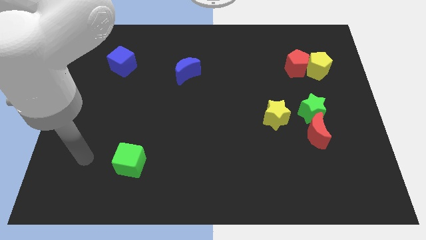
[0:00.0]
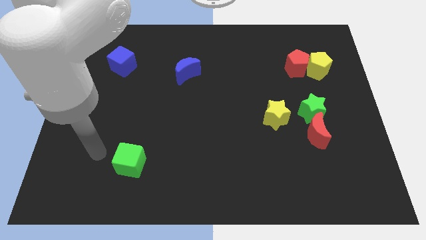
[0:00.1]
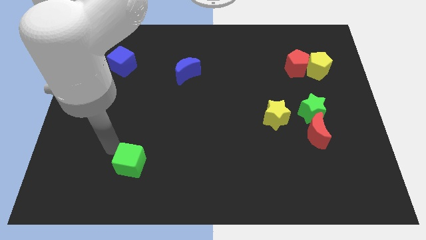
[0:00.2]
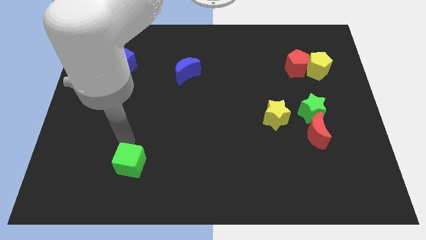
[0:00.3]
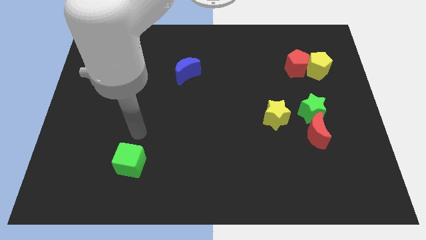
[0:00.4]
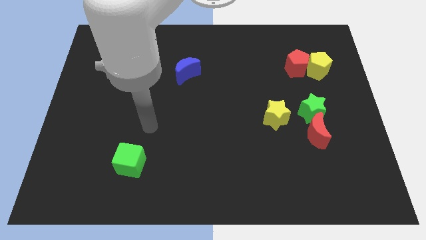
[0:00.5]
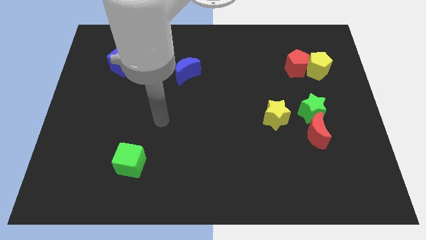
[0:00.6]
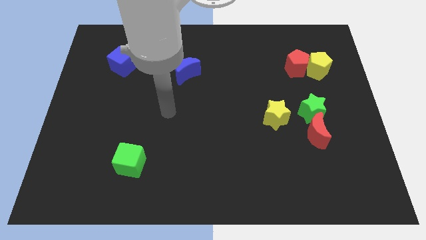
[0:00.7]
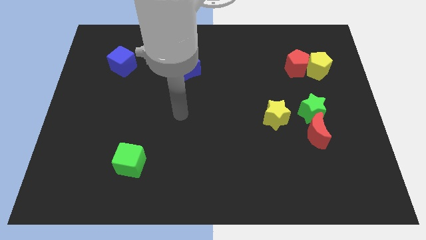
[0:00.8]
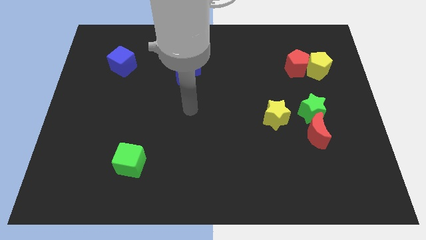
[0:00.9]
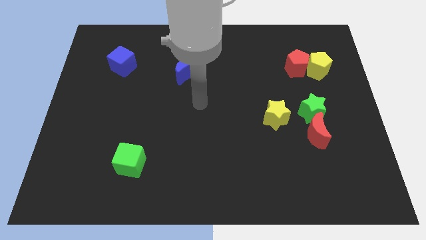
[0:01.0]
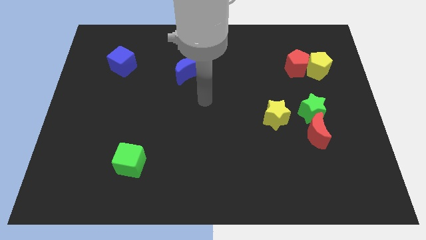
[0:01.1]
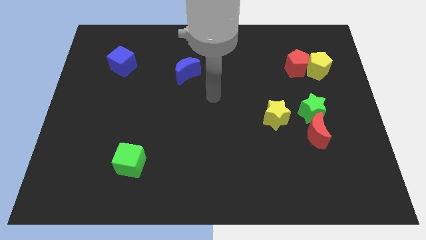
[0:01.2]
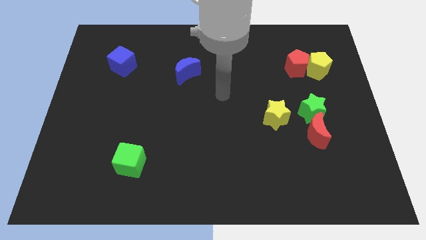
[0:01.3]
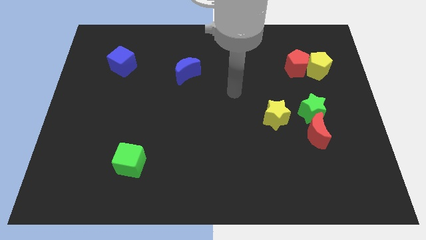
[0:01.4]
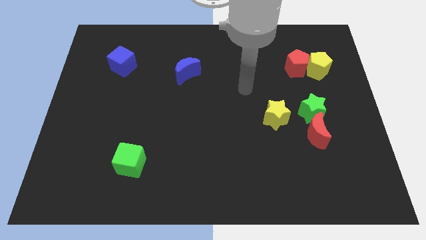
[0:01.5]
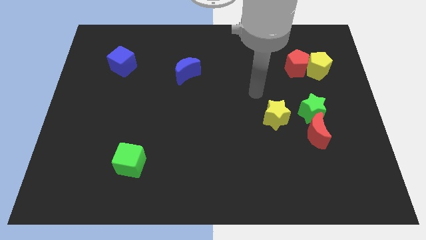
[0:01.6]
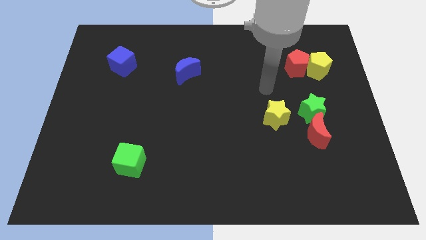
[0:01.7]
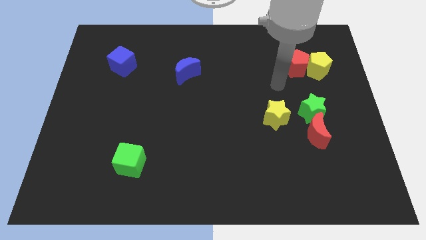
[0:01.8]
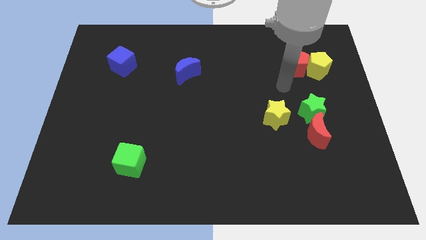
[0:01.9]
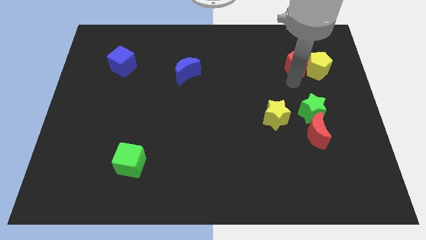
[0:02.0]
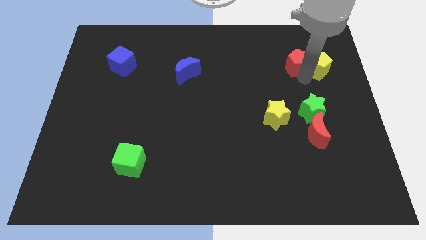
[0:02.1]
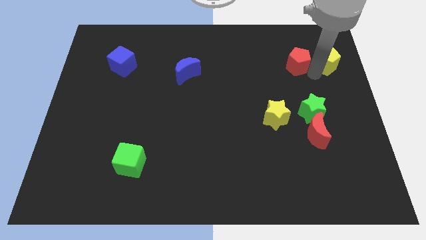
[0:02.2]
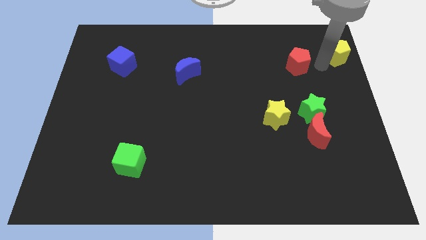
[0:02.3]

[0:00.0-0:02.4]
pull the red pentagon apart from the yellow pentagon

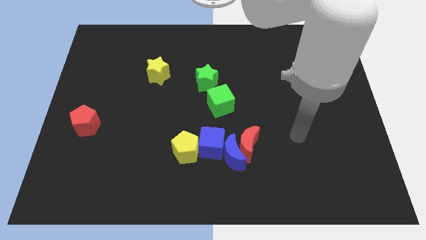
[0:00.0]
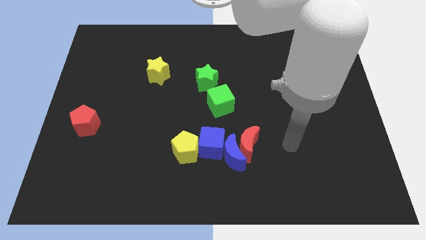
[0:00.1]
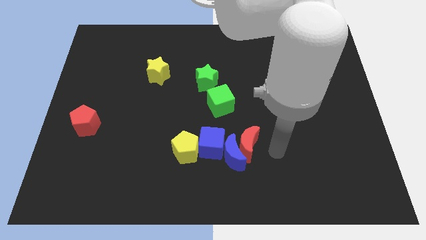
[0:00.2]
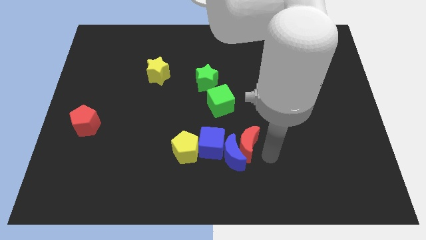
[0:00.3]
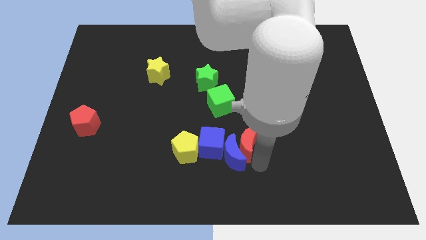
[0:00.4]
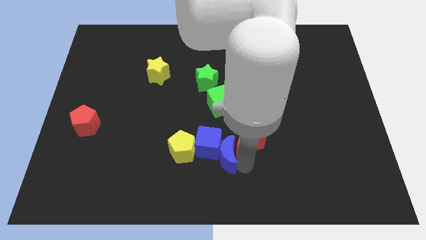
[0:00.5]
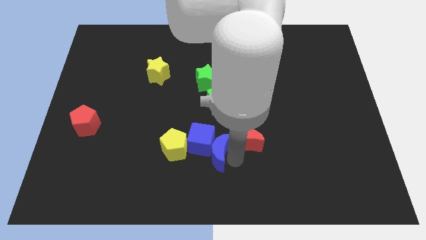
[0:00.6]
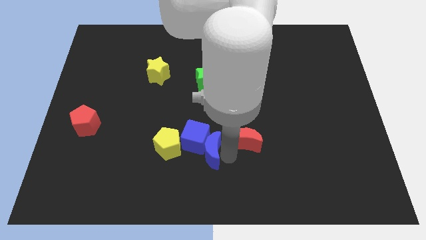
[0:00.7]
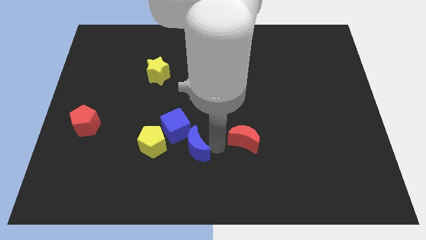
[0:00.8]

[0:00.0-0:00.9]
move the red moon away from the blue moon and blue cube

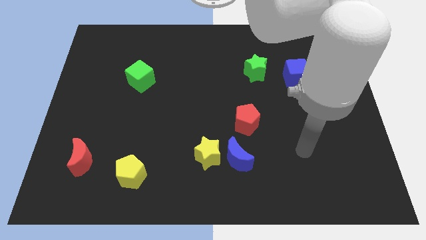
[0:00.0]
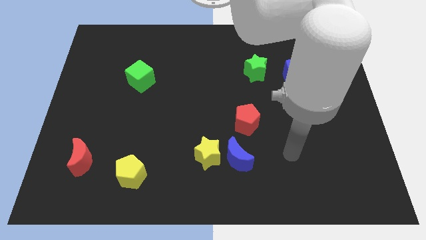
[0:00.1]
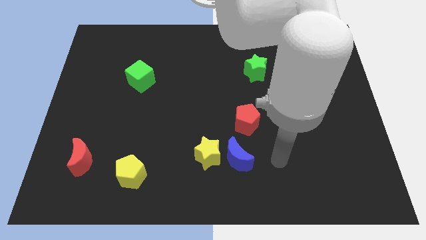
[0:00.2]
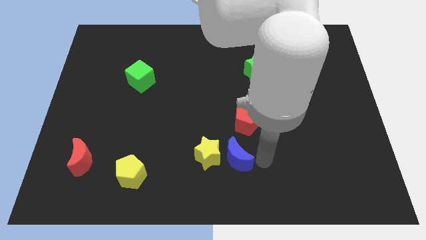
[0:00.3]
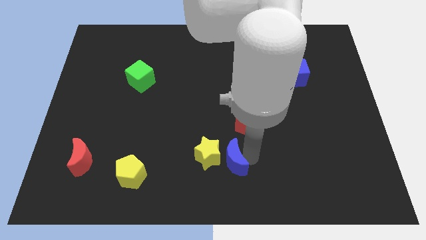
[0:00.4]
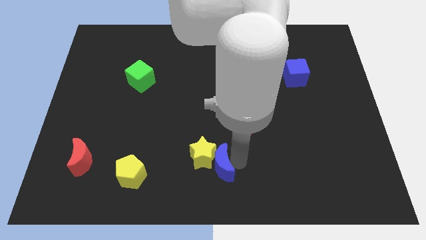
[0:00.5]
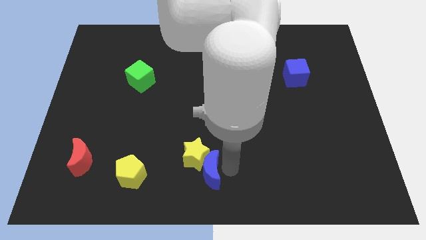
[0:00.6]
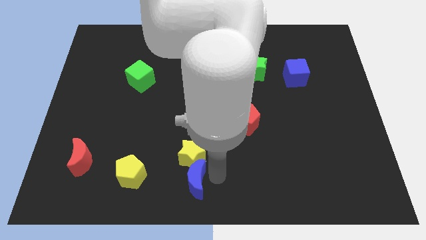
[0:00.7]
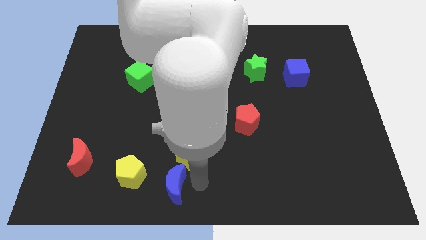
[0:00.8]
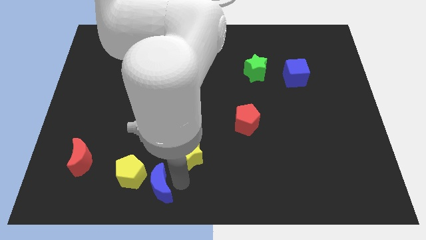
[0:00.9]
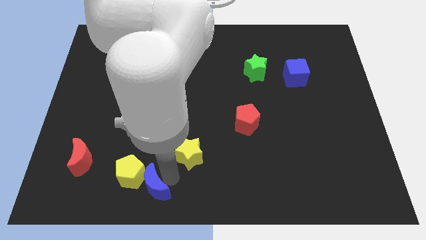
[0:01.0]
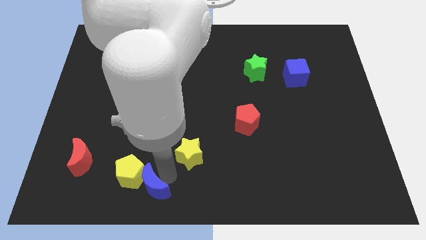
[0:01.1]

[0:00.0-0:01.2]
separate the yellow star from the blue moon

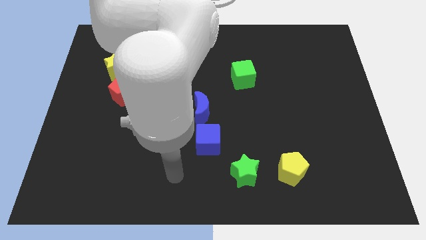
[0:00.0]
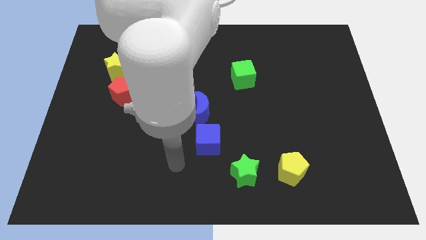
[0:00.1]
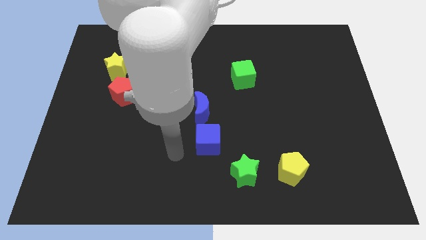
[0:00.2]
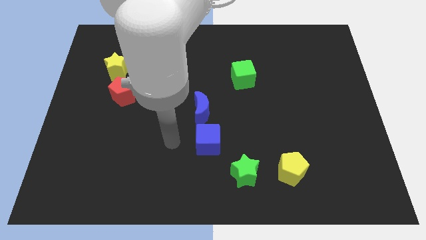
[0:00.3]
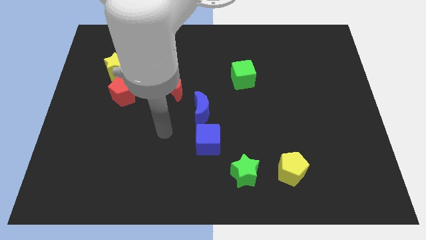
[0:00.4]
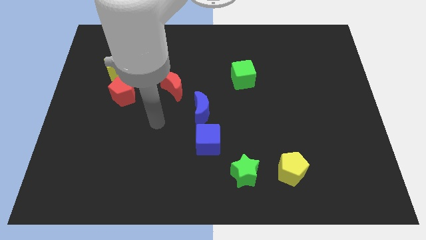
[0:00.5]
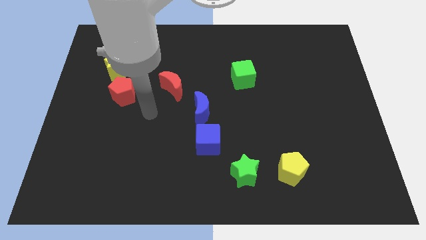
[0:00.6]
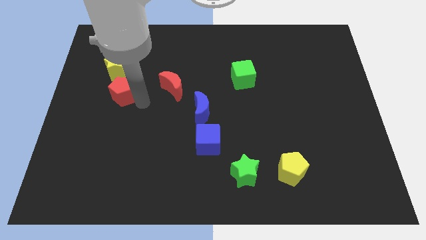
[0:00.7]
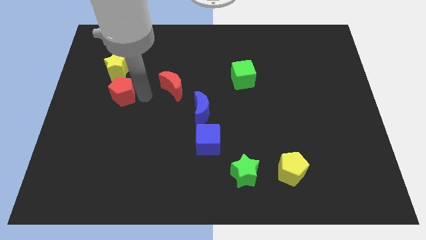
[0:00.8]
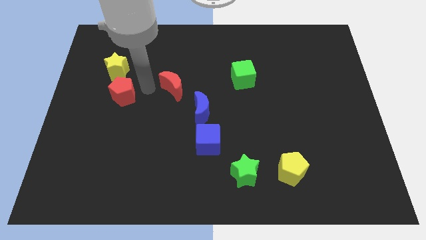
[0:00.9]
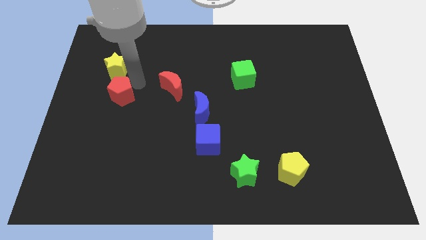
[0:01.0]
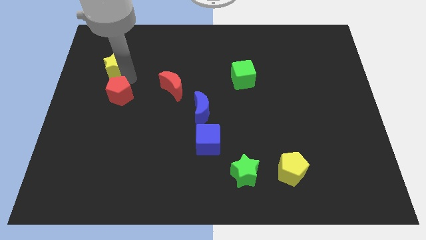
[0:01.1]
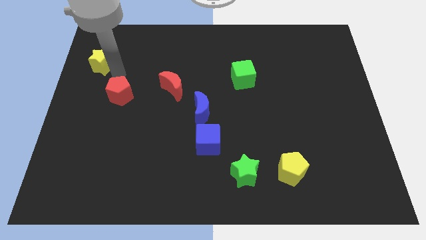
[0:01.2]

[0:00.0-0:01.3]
move the red pentagon away from the yellow star

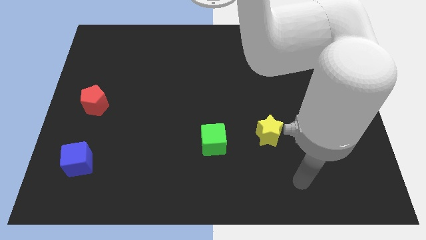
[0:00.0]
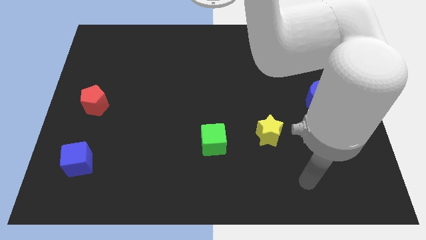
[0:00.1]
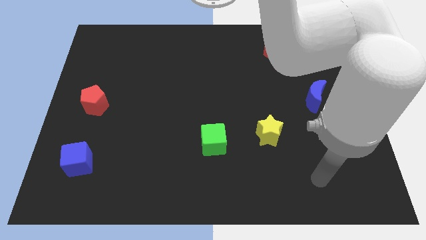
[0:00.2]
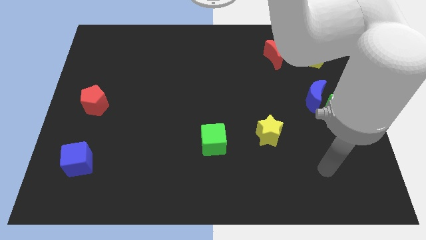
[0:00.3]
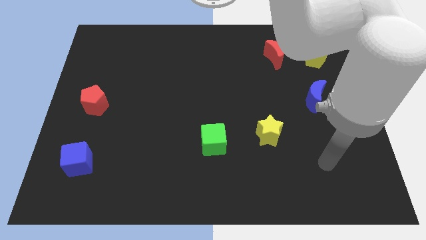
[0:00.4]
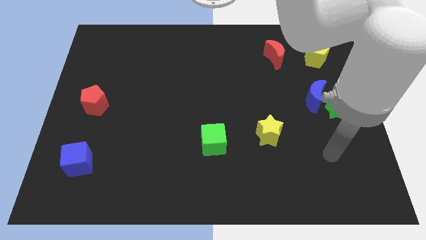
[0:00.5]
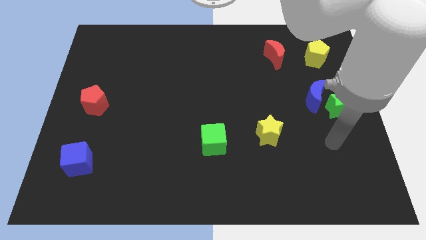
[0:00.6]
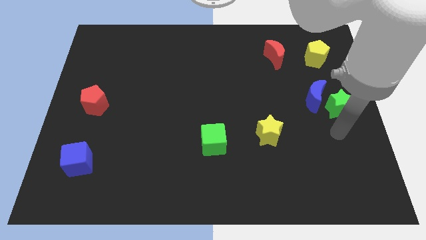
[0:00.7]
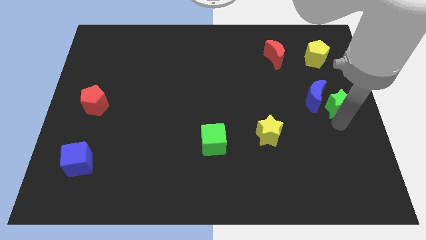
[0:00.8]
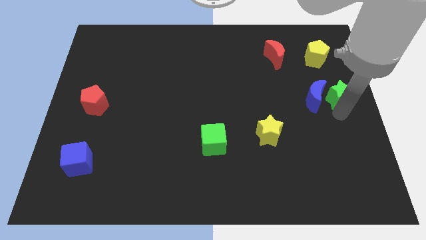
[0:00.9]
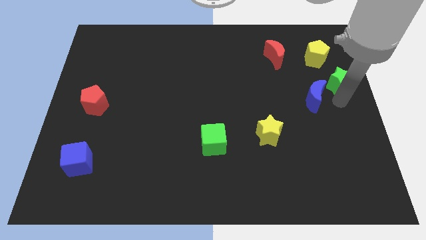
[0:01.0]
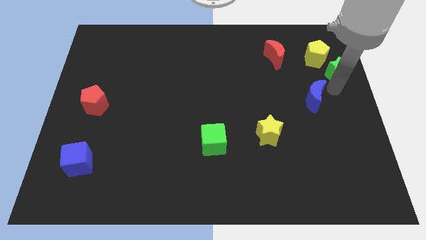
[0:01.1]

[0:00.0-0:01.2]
pull the blue moon apart from the green star

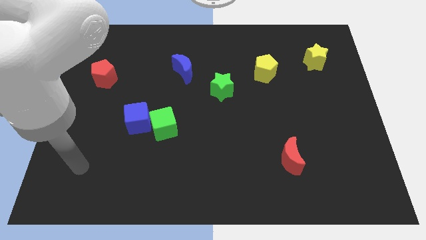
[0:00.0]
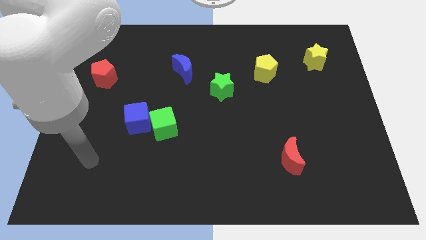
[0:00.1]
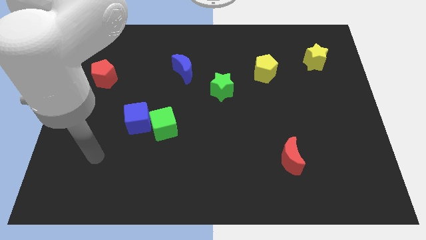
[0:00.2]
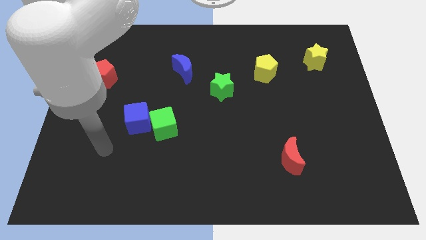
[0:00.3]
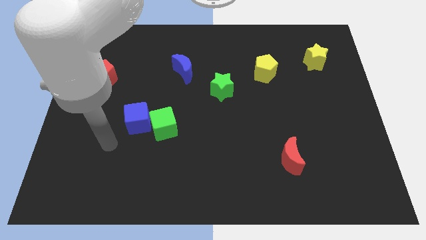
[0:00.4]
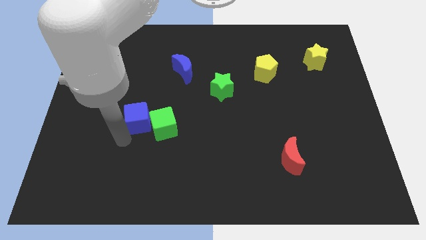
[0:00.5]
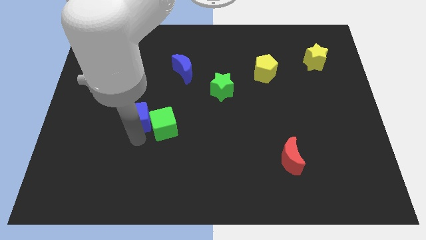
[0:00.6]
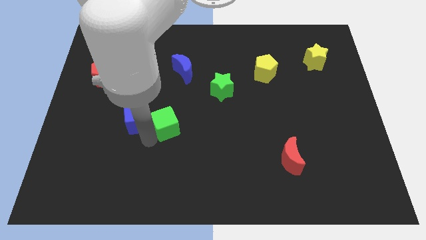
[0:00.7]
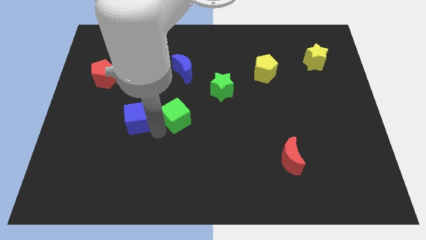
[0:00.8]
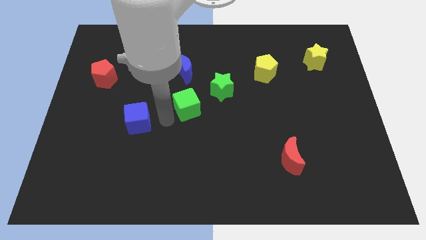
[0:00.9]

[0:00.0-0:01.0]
separate the blue cube from the green cube

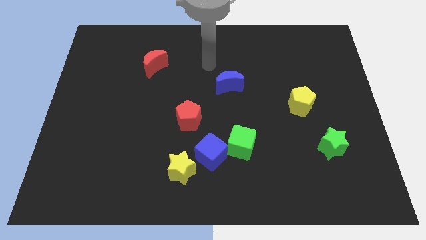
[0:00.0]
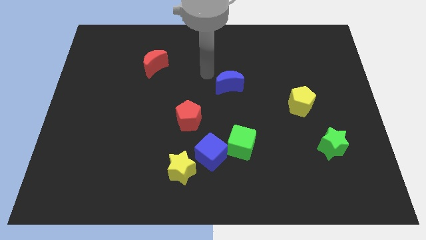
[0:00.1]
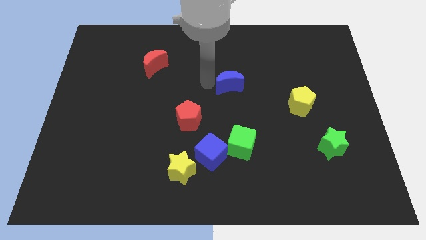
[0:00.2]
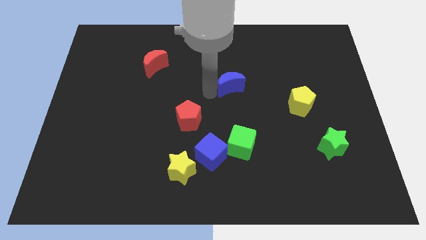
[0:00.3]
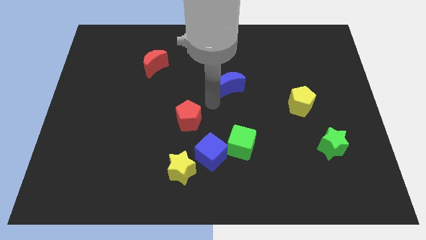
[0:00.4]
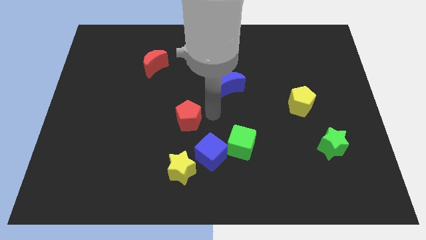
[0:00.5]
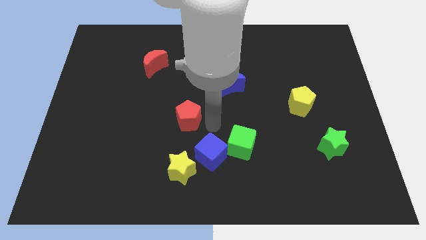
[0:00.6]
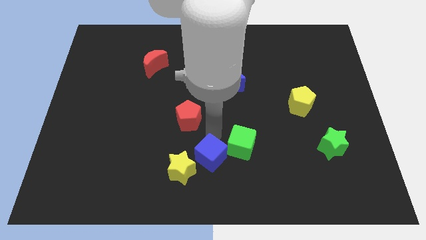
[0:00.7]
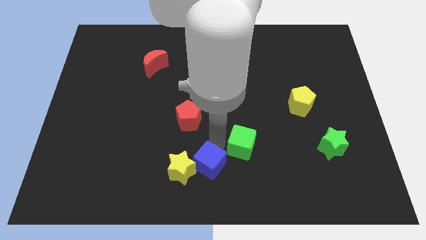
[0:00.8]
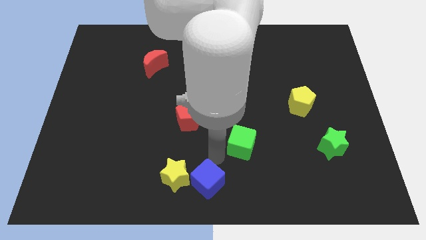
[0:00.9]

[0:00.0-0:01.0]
pull the green cube apart from the blue cube

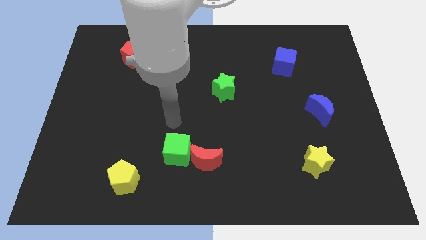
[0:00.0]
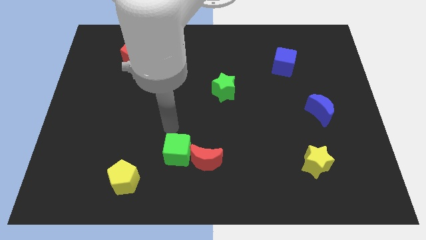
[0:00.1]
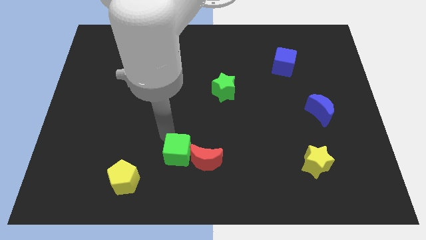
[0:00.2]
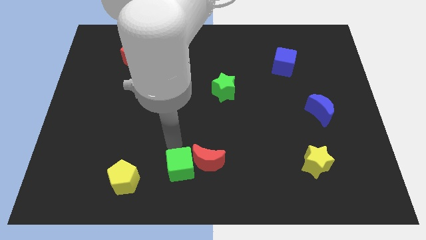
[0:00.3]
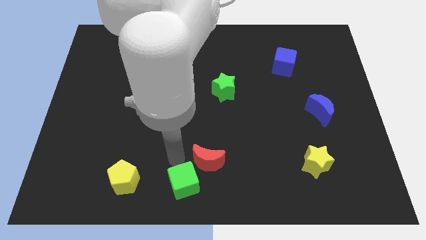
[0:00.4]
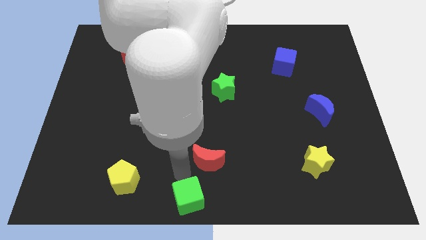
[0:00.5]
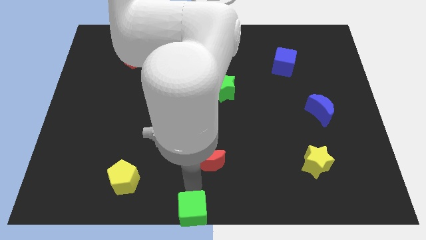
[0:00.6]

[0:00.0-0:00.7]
separate the red moon from the green cube
